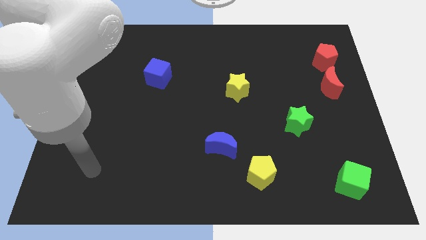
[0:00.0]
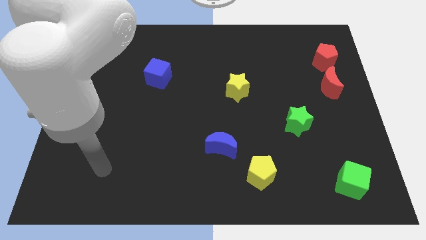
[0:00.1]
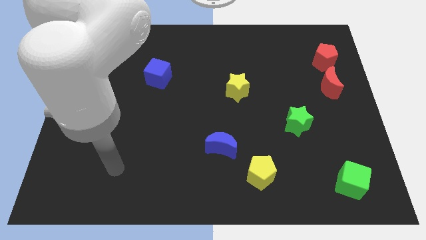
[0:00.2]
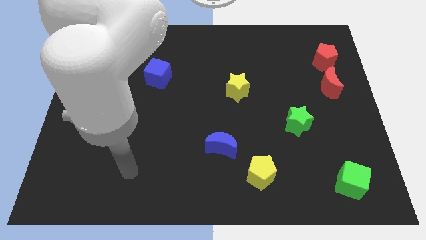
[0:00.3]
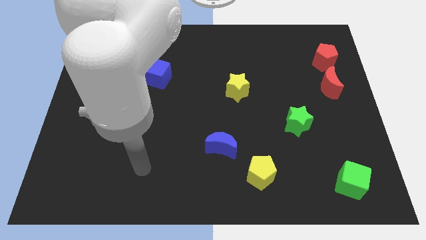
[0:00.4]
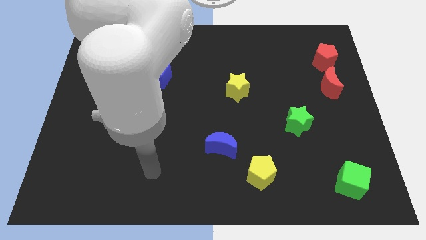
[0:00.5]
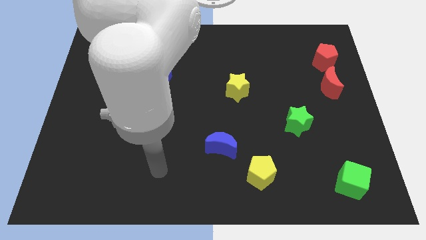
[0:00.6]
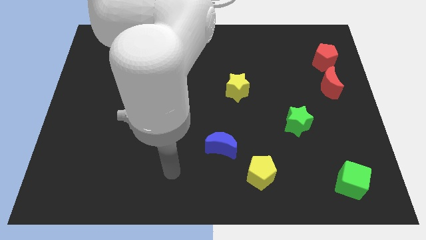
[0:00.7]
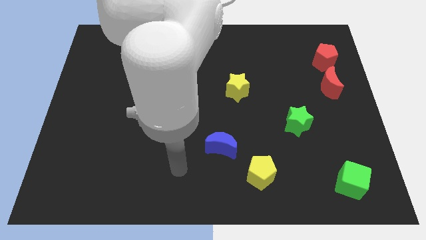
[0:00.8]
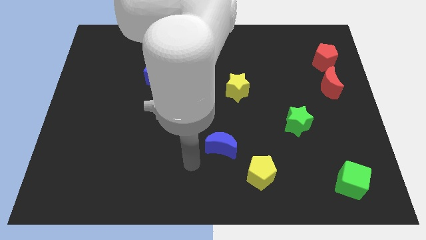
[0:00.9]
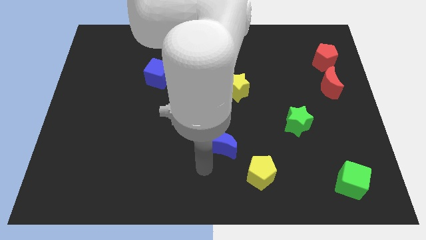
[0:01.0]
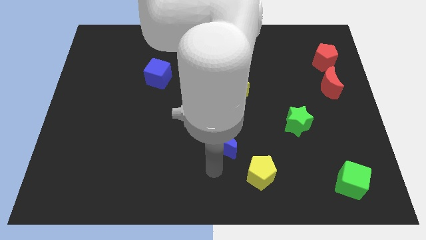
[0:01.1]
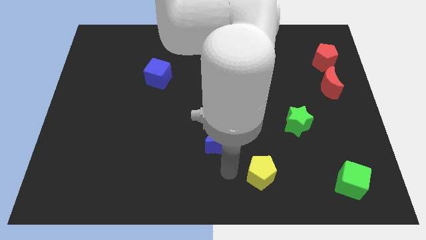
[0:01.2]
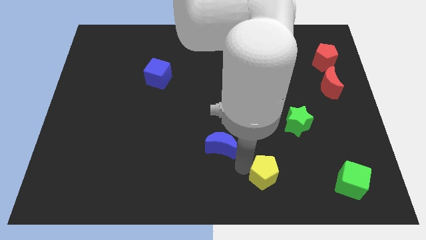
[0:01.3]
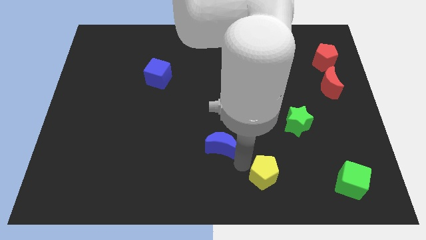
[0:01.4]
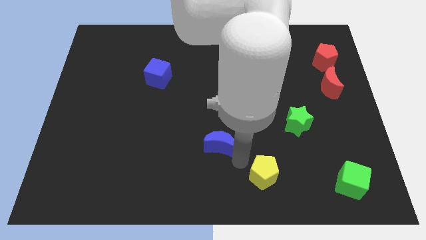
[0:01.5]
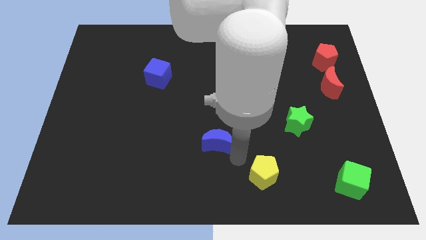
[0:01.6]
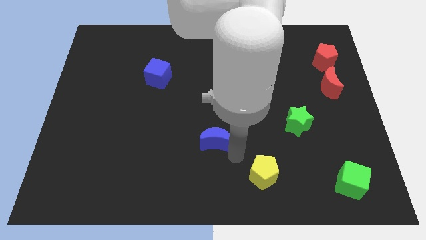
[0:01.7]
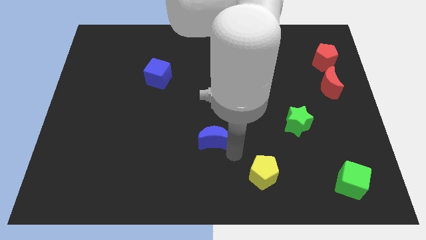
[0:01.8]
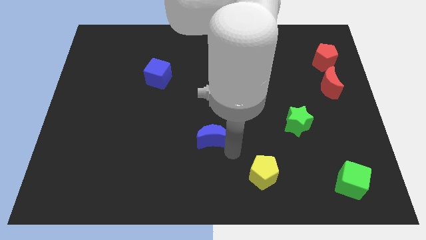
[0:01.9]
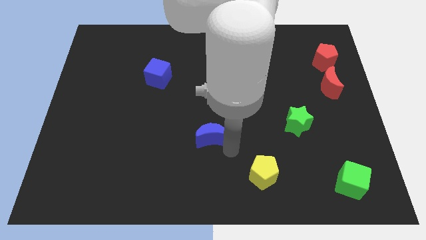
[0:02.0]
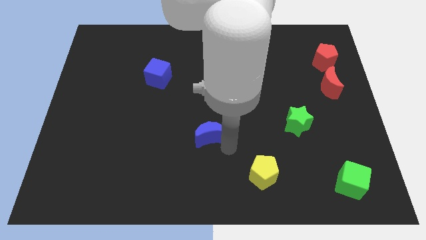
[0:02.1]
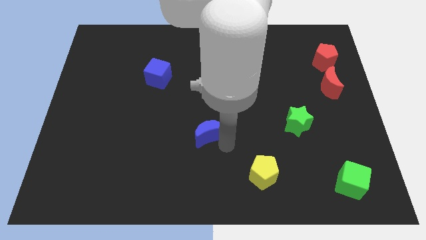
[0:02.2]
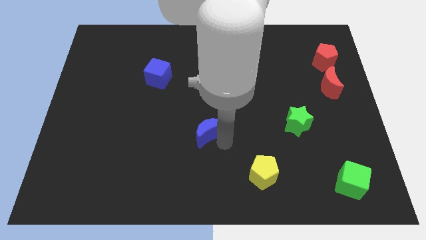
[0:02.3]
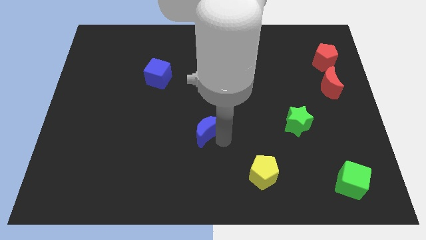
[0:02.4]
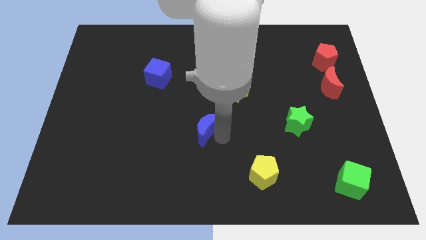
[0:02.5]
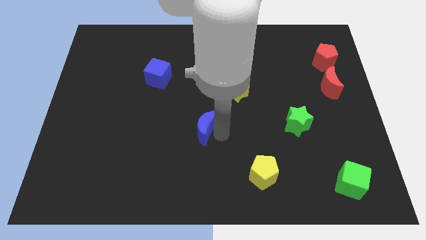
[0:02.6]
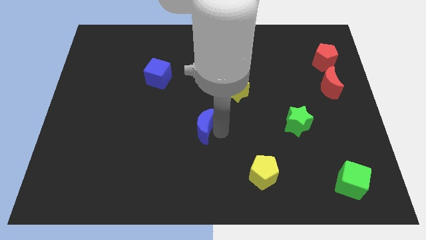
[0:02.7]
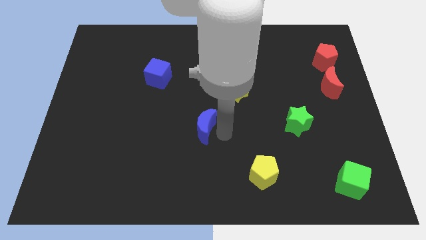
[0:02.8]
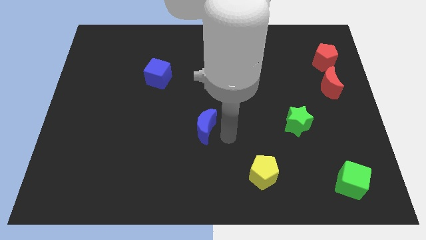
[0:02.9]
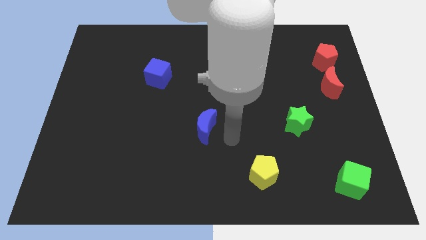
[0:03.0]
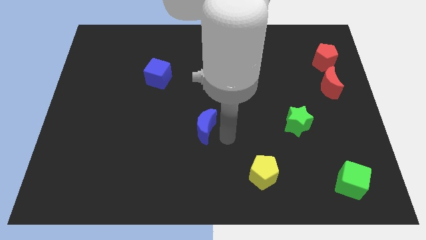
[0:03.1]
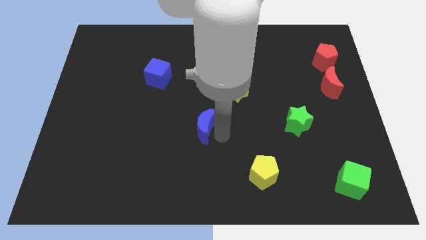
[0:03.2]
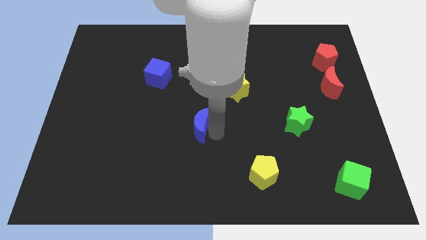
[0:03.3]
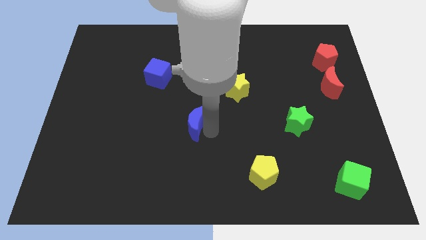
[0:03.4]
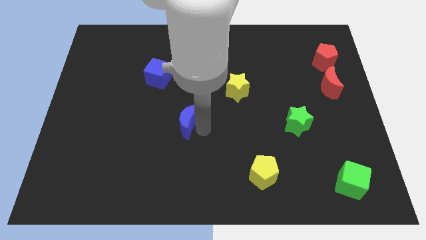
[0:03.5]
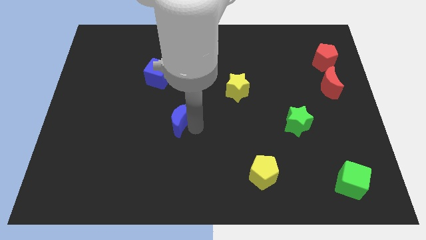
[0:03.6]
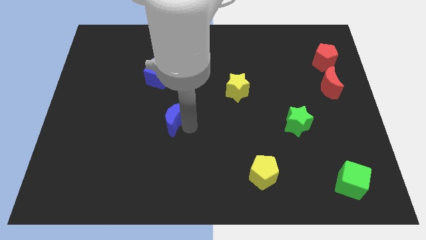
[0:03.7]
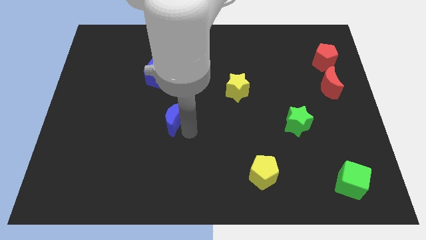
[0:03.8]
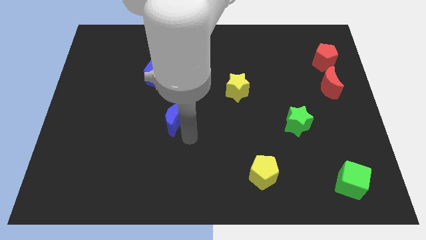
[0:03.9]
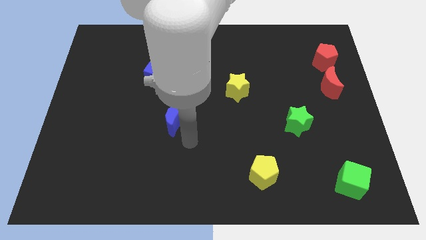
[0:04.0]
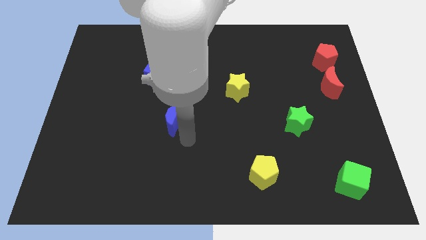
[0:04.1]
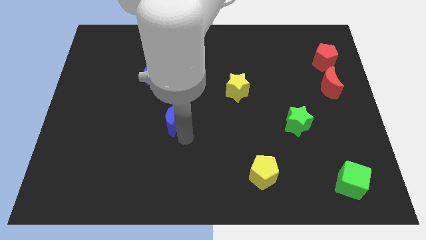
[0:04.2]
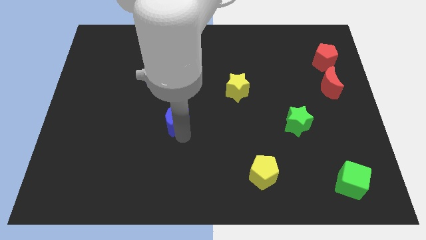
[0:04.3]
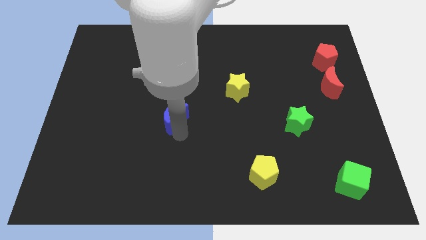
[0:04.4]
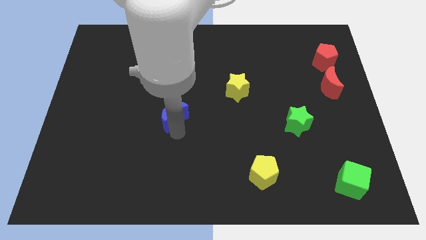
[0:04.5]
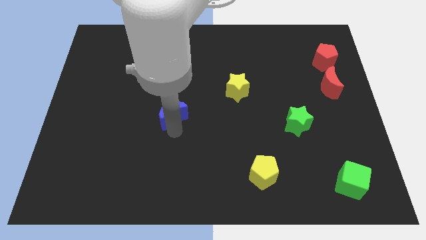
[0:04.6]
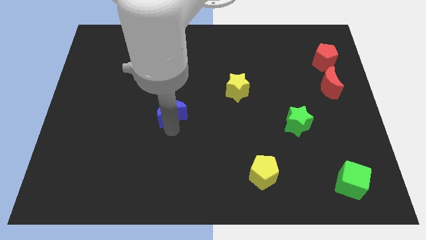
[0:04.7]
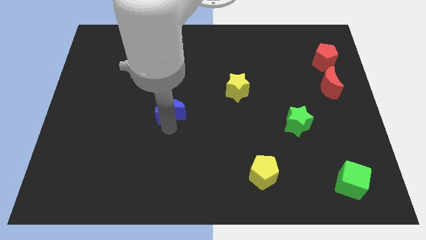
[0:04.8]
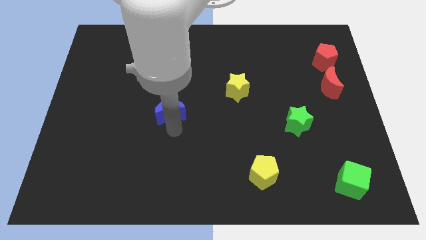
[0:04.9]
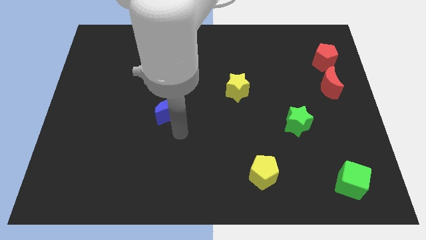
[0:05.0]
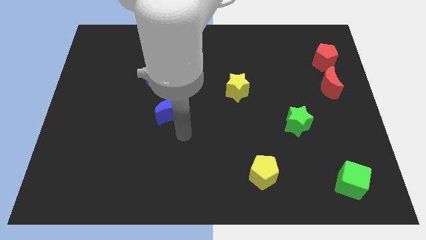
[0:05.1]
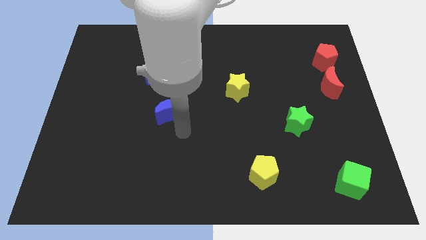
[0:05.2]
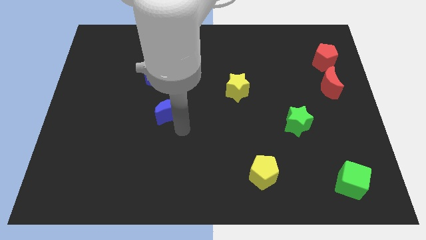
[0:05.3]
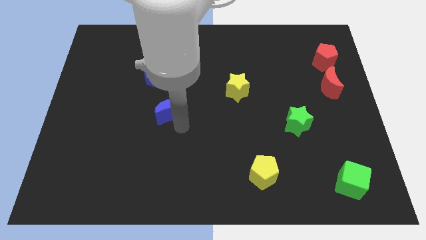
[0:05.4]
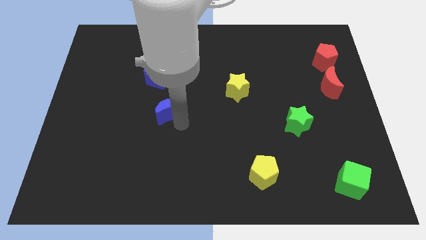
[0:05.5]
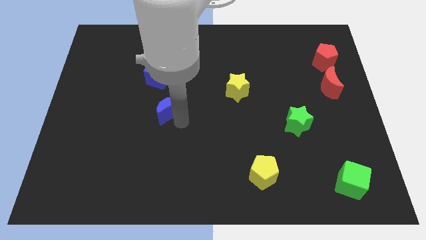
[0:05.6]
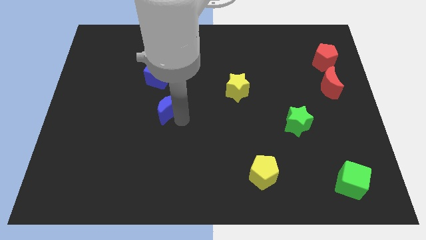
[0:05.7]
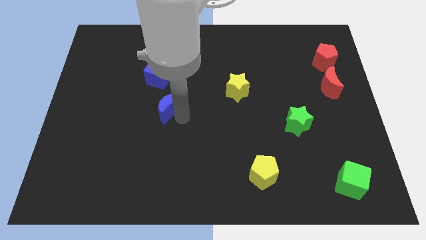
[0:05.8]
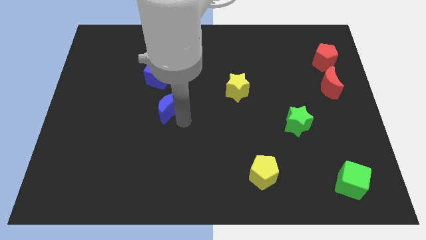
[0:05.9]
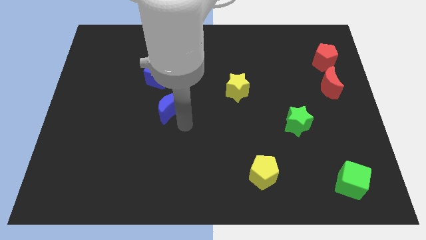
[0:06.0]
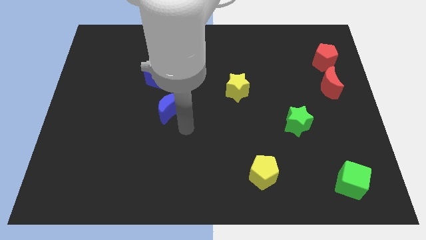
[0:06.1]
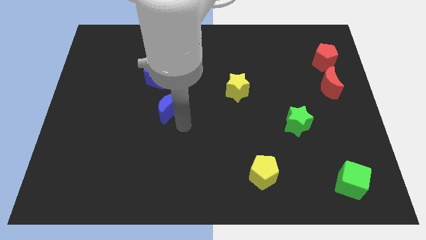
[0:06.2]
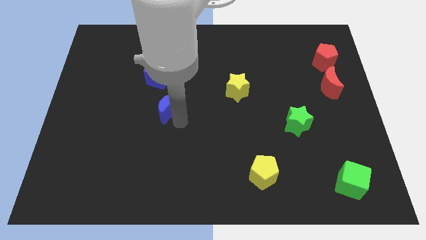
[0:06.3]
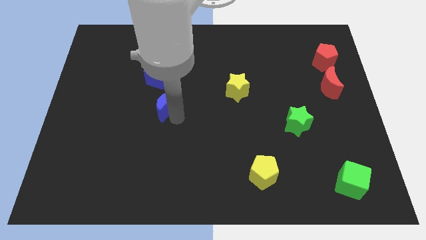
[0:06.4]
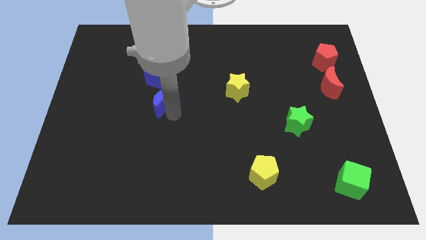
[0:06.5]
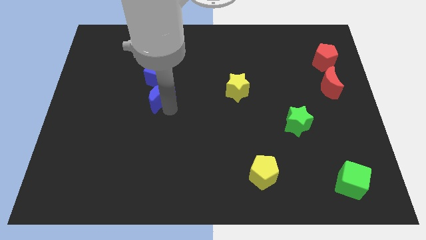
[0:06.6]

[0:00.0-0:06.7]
slide the blue moon upwards and to the left diagonally

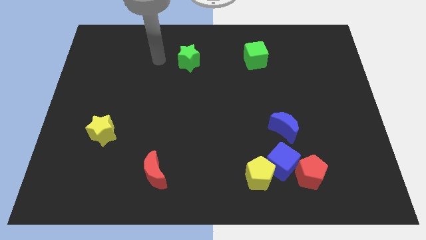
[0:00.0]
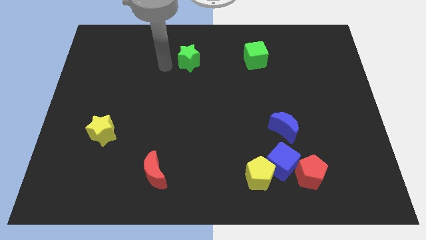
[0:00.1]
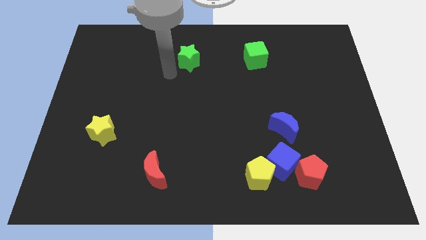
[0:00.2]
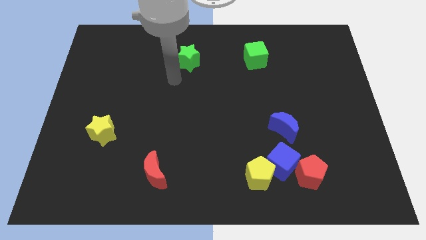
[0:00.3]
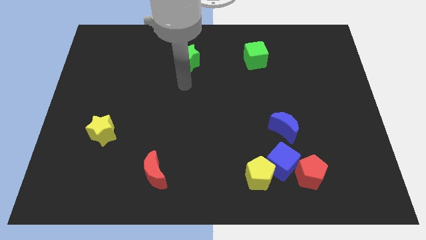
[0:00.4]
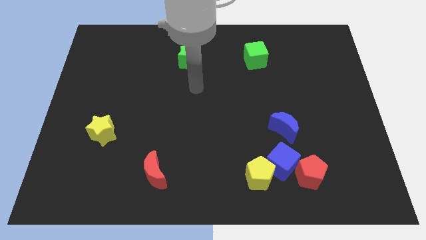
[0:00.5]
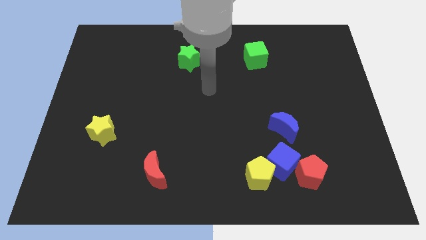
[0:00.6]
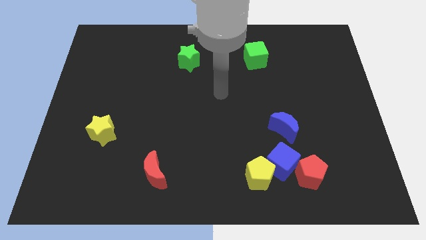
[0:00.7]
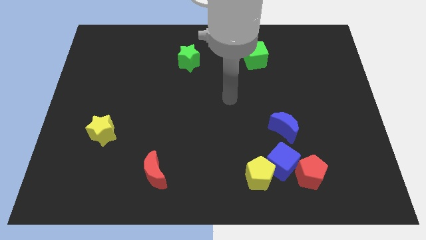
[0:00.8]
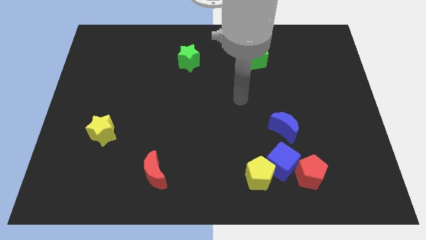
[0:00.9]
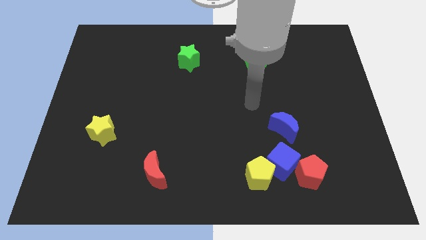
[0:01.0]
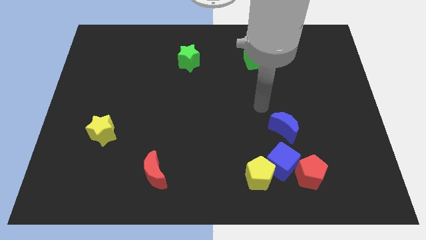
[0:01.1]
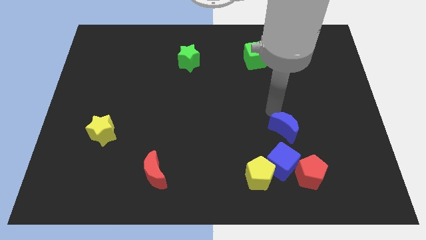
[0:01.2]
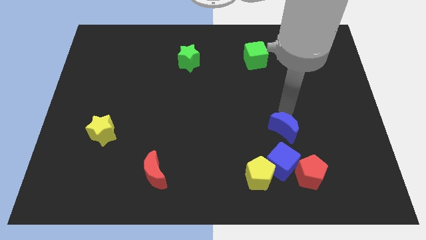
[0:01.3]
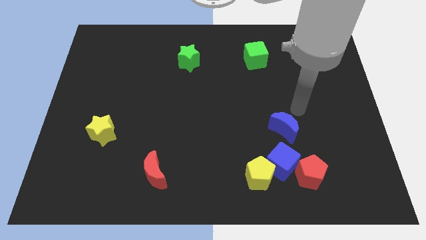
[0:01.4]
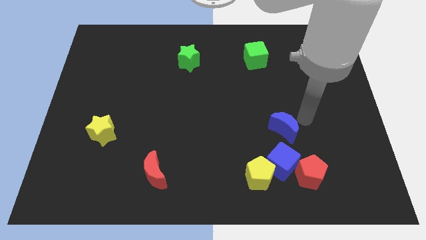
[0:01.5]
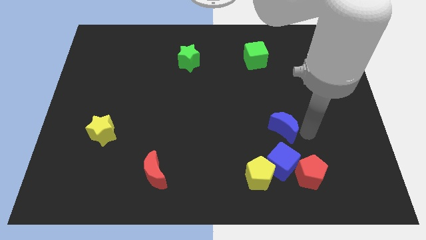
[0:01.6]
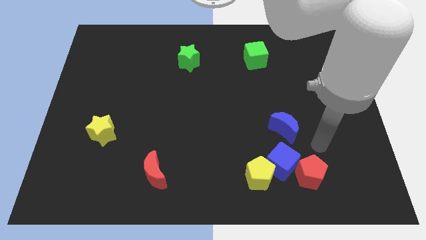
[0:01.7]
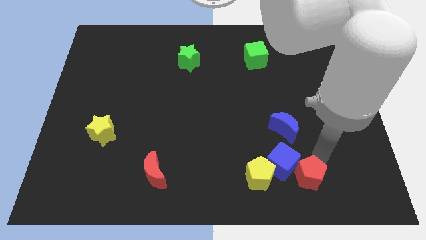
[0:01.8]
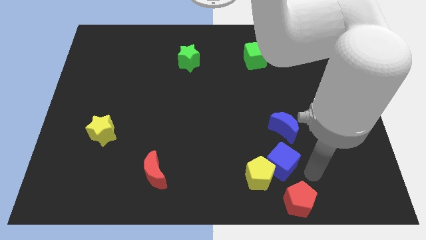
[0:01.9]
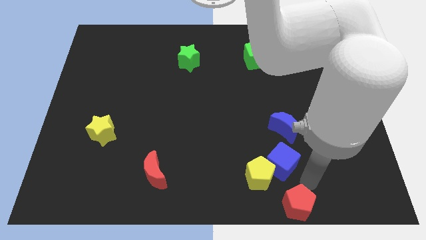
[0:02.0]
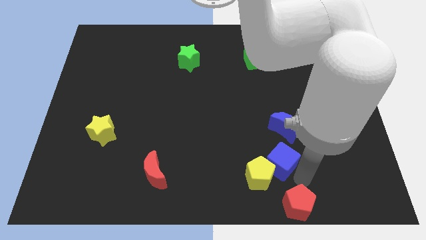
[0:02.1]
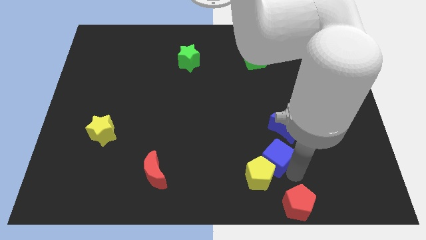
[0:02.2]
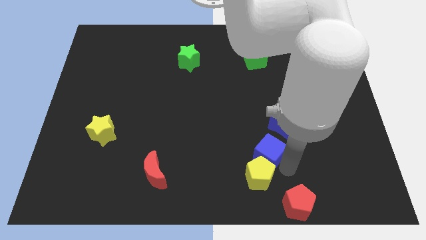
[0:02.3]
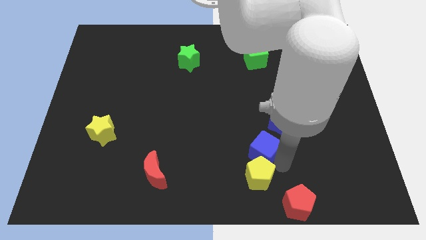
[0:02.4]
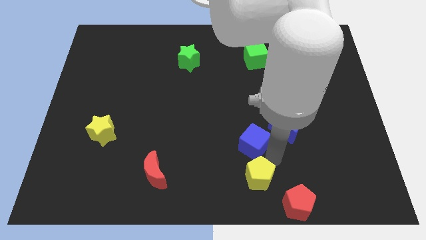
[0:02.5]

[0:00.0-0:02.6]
slightly slide the blue cube diagonally up and to the left
